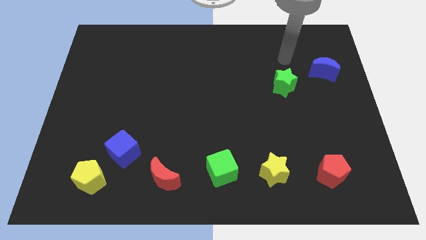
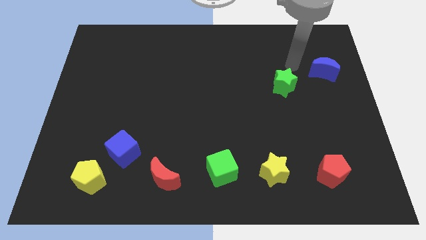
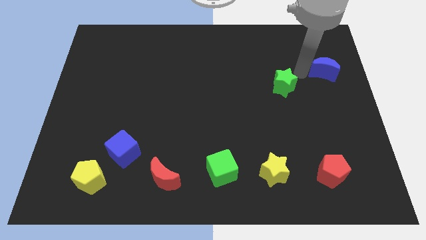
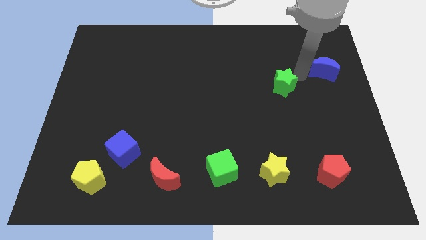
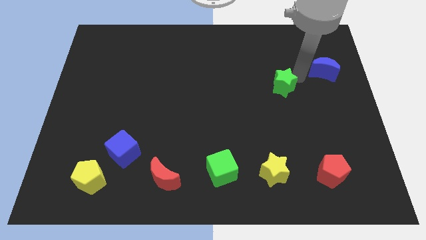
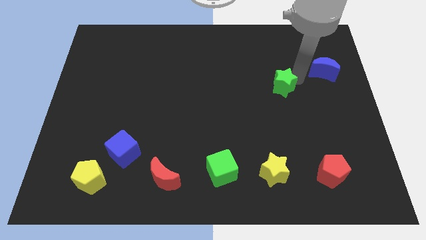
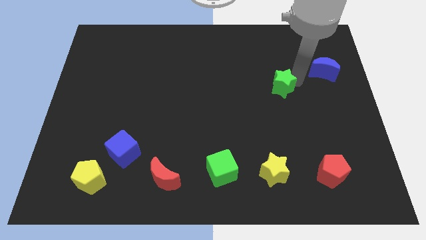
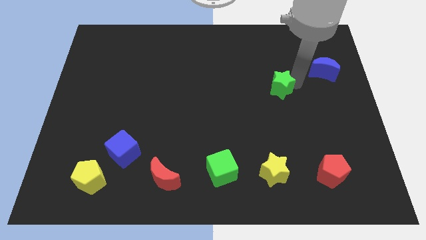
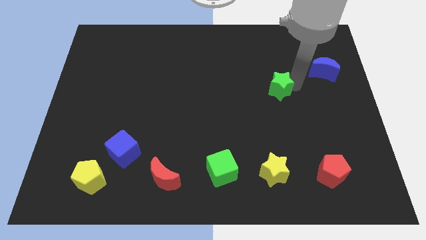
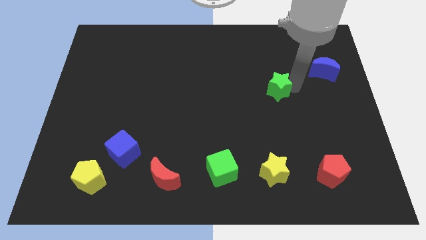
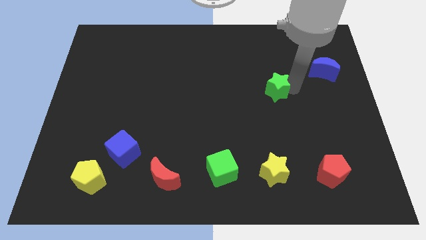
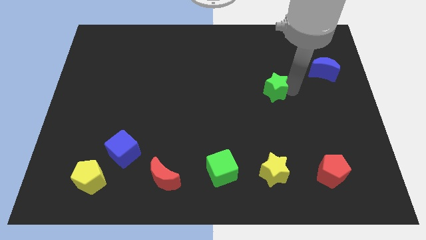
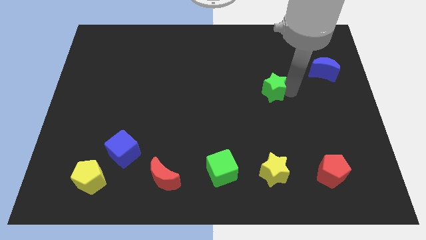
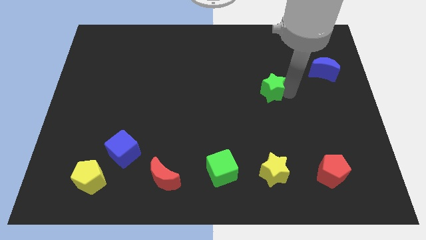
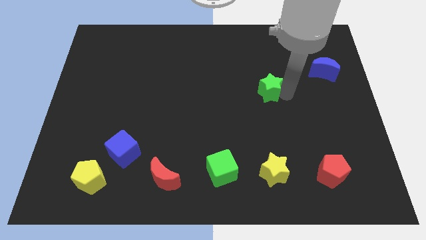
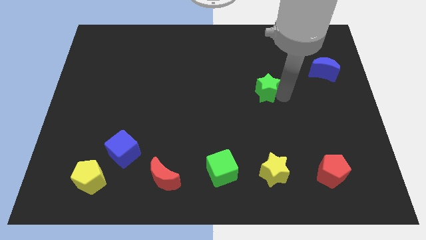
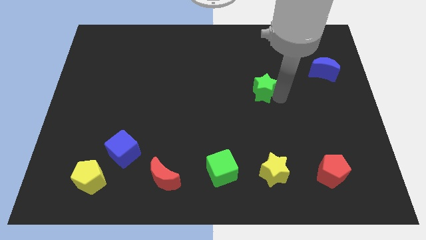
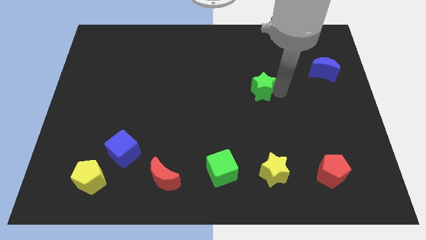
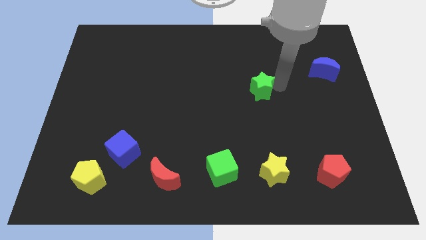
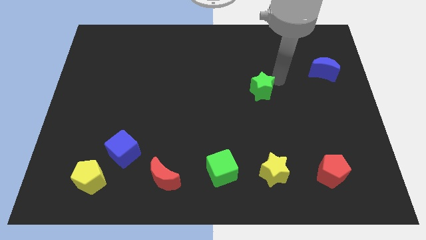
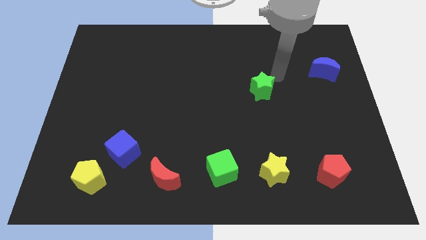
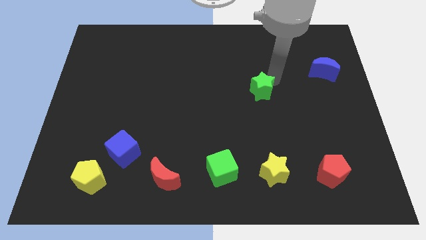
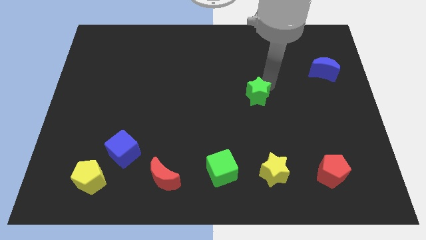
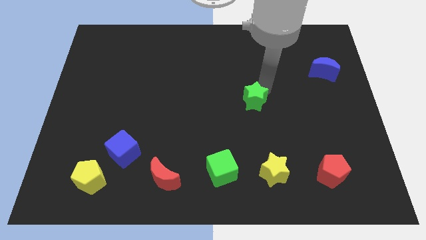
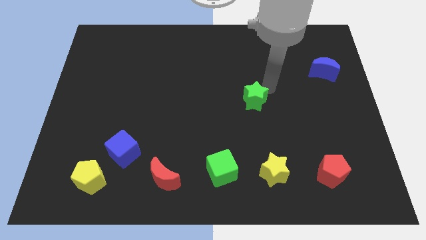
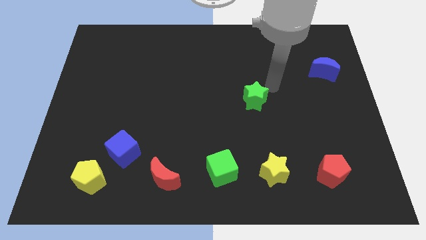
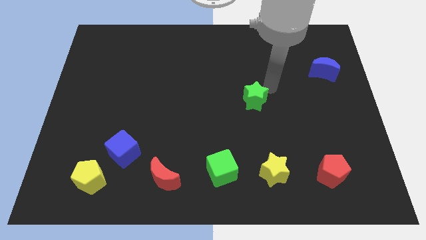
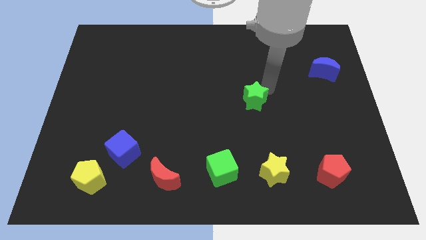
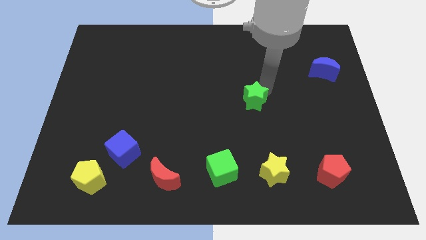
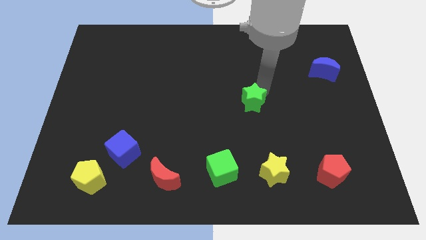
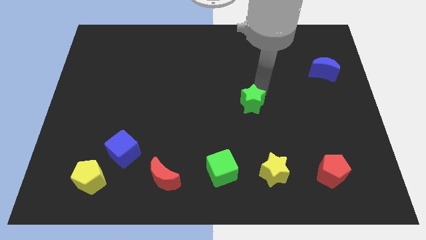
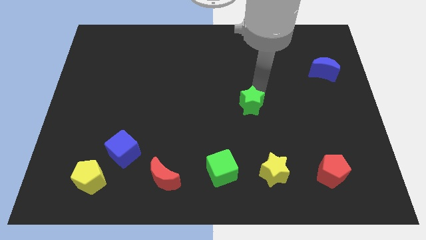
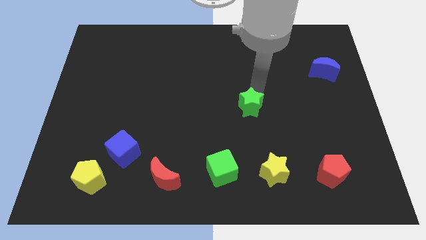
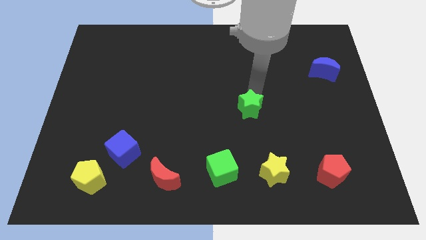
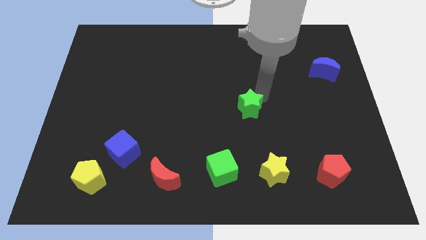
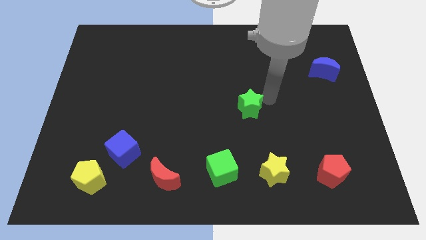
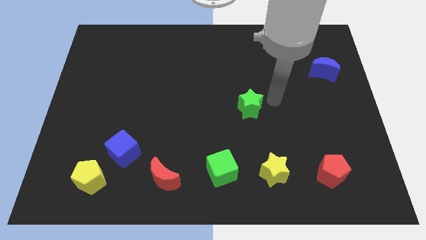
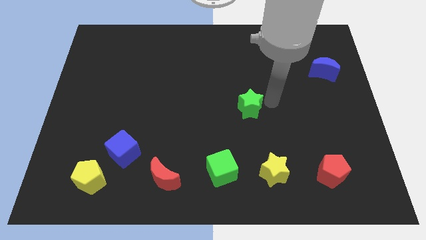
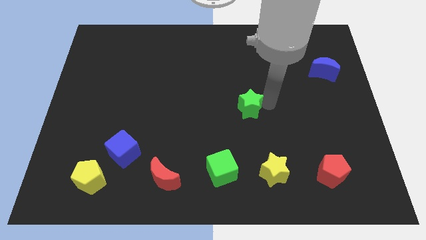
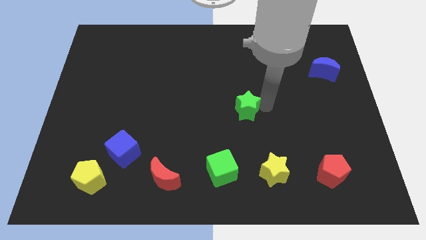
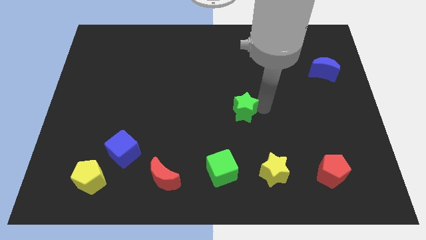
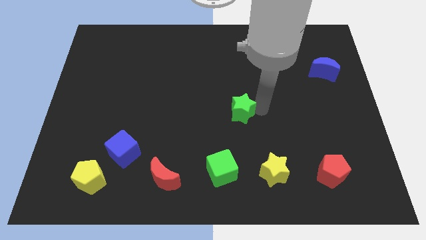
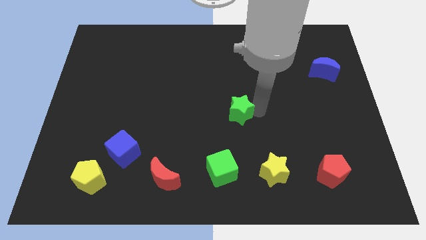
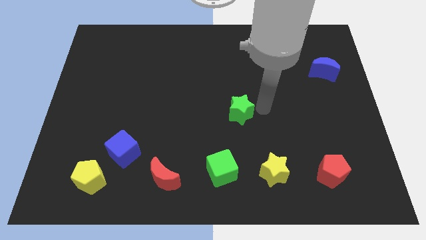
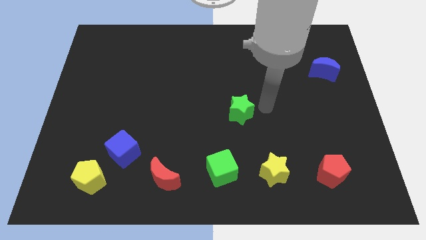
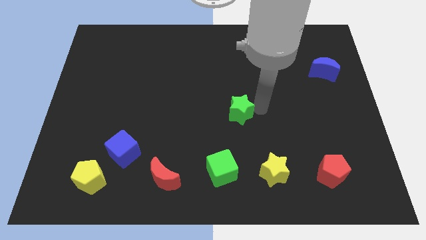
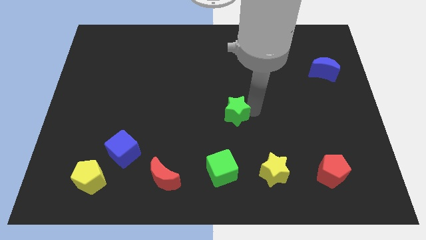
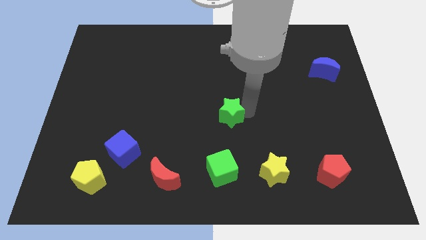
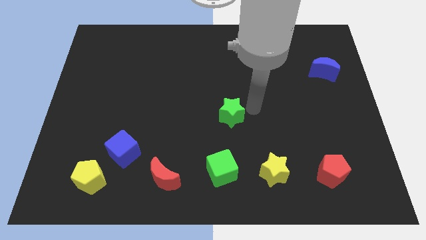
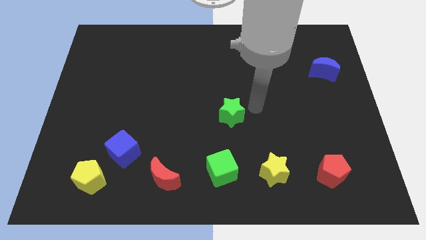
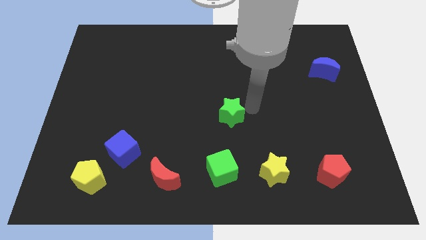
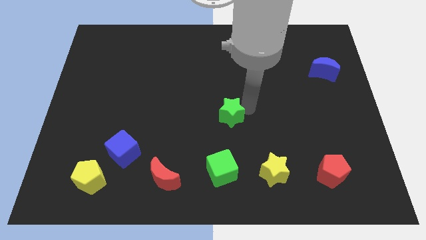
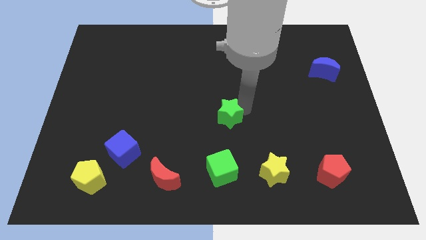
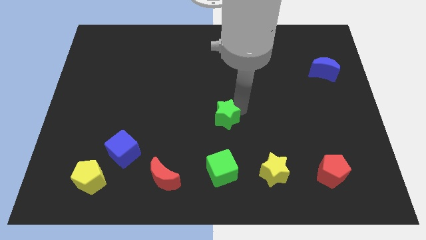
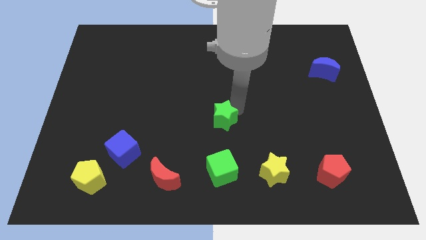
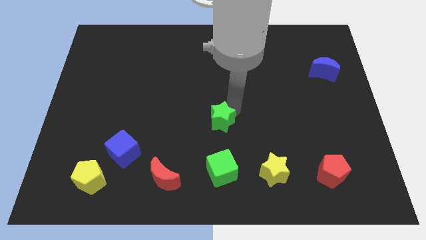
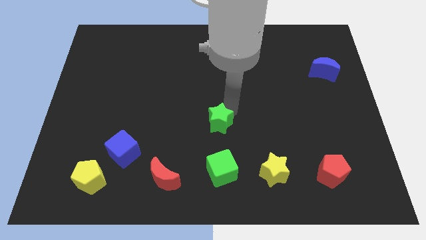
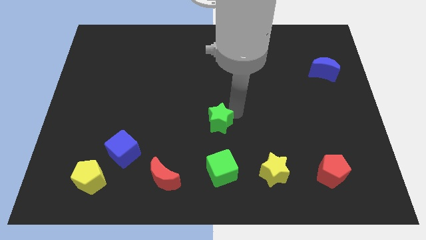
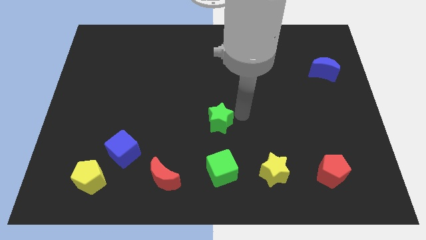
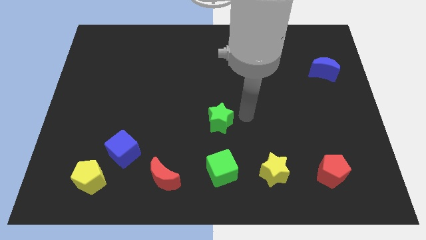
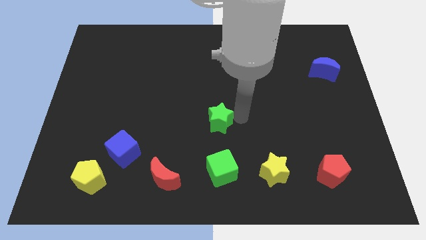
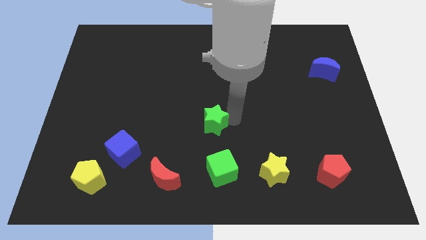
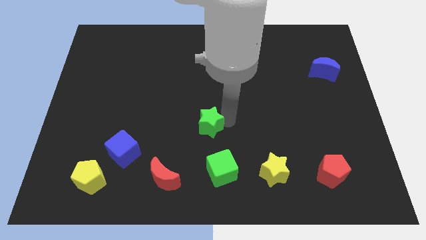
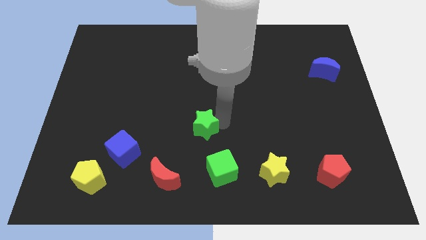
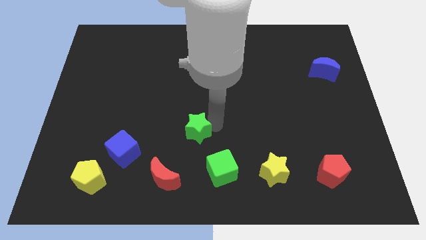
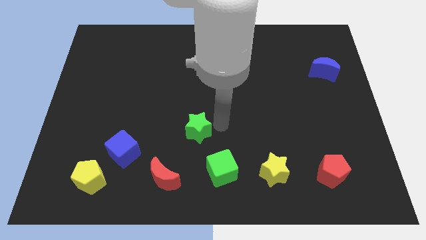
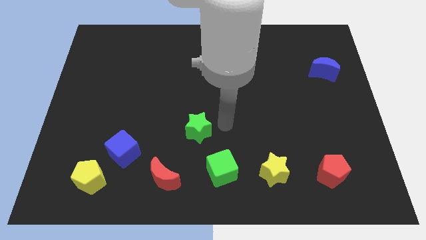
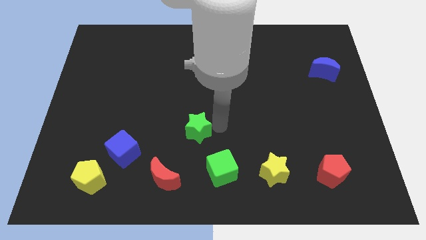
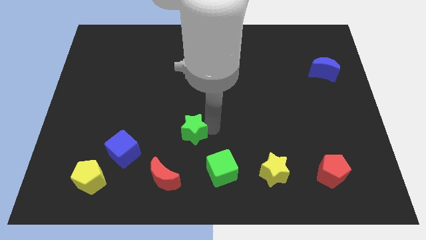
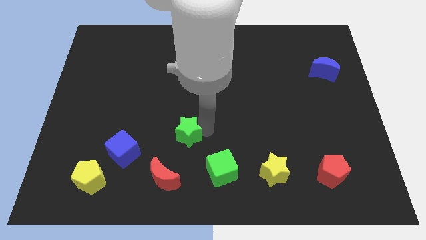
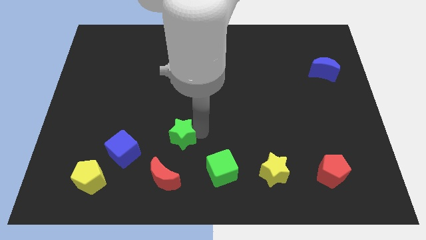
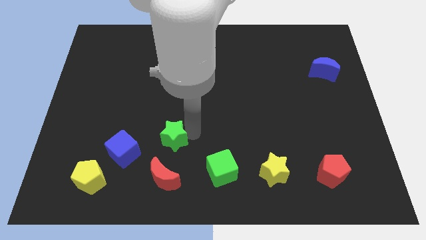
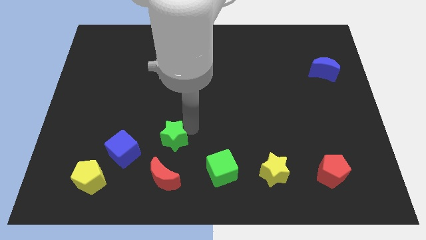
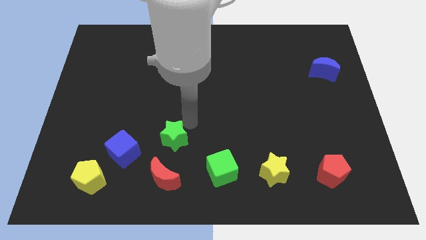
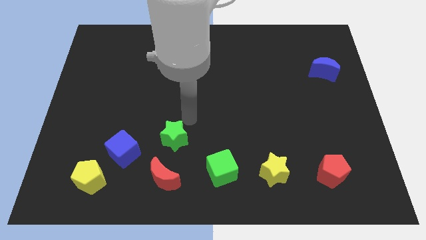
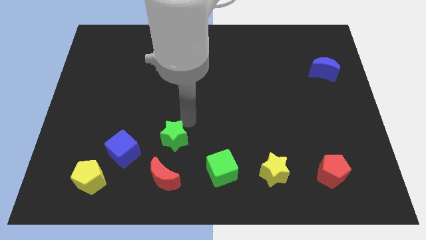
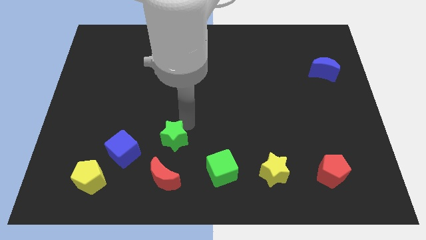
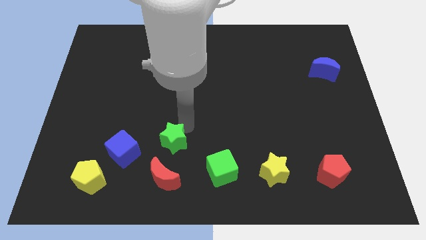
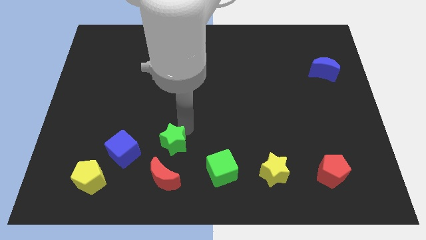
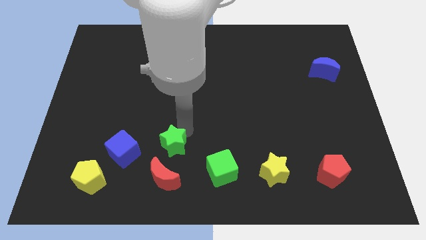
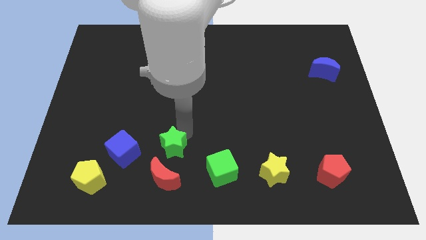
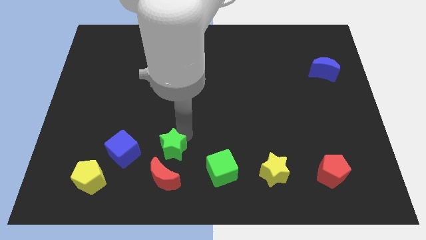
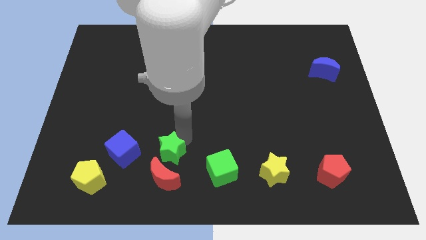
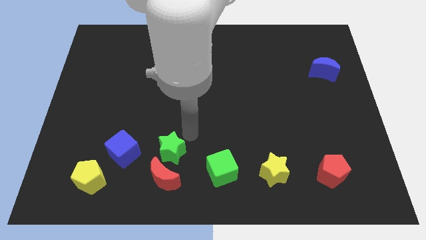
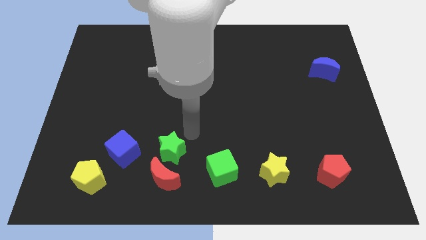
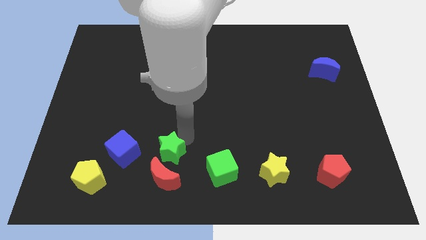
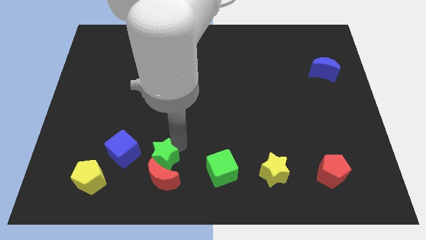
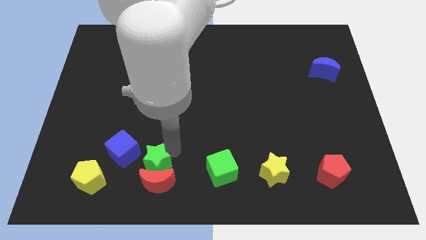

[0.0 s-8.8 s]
move the green star to the right side of the yellow pentagon
